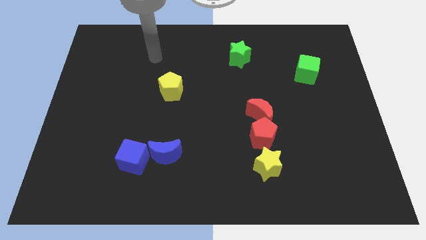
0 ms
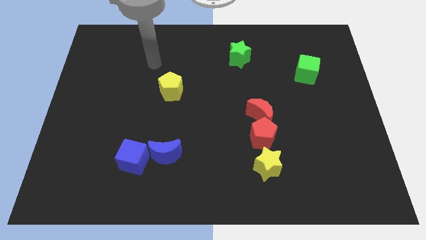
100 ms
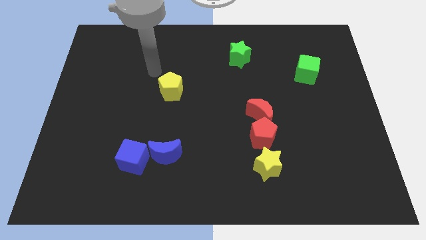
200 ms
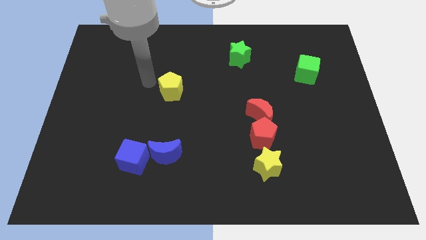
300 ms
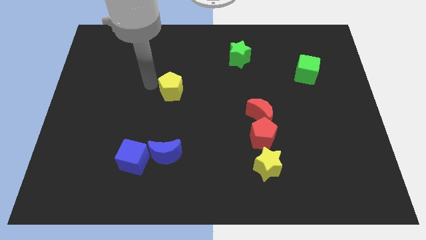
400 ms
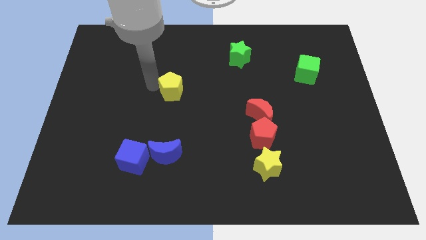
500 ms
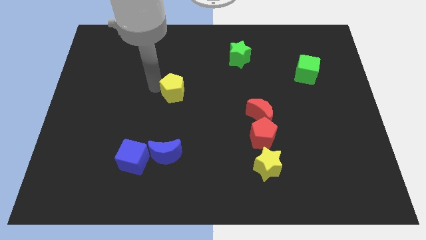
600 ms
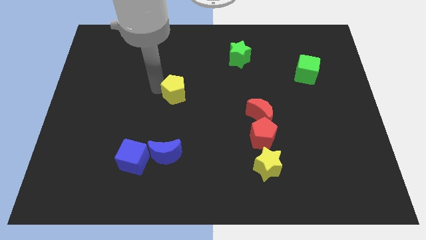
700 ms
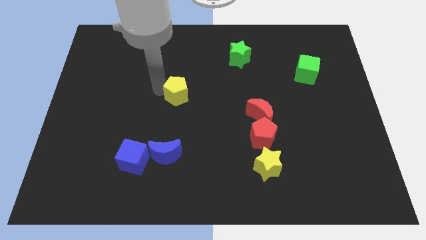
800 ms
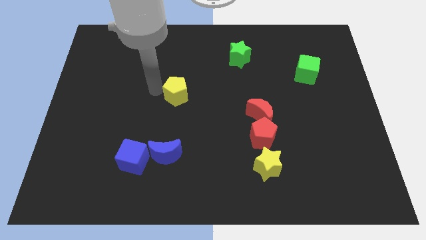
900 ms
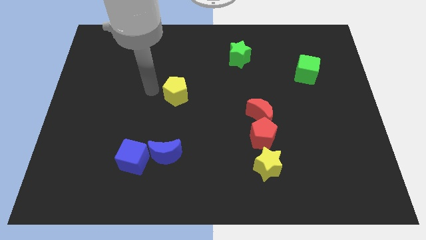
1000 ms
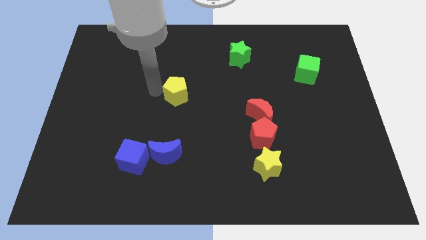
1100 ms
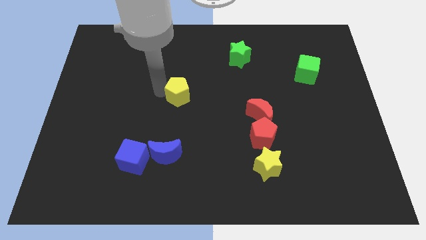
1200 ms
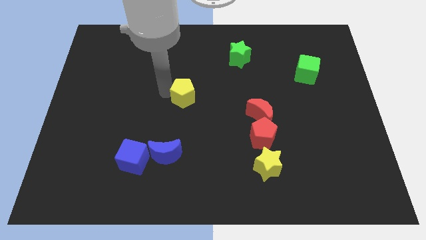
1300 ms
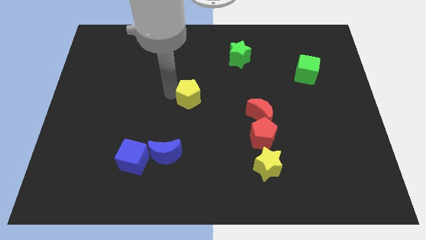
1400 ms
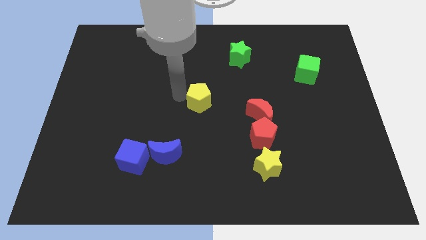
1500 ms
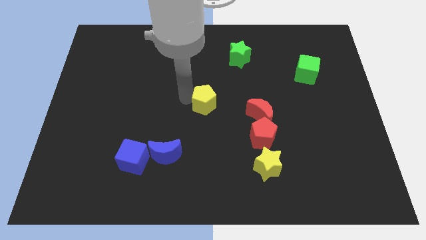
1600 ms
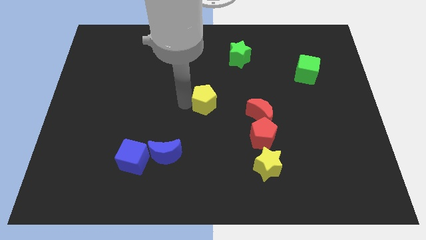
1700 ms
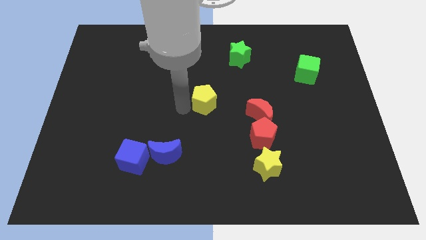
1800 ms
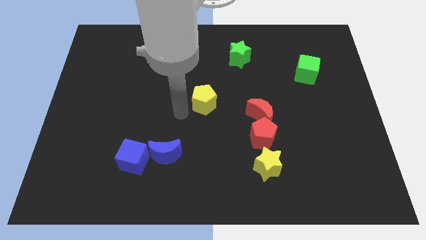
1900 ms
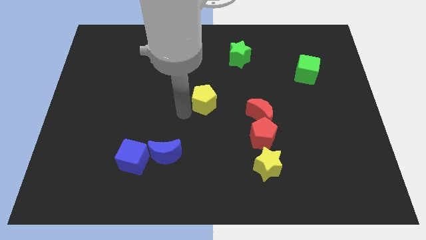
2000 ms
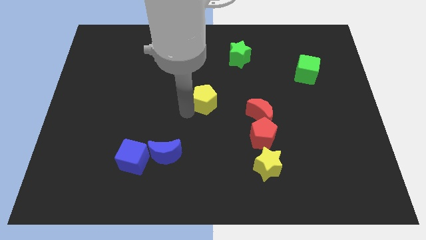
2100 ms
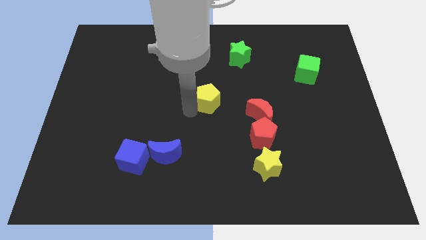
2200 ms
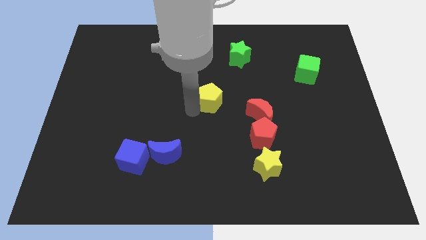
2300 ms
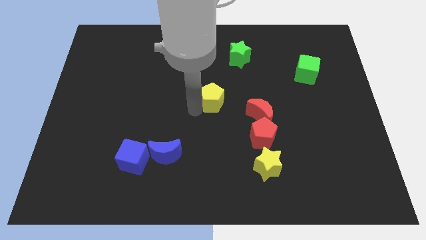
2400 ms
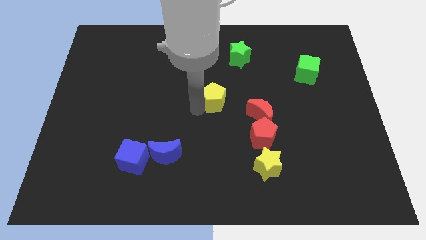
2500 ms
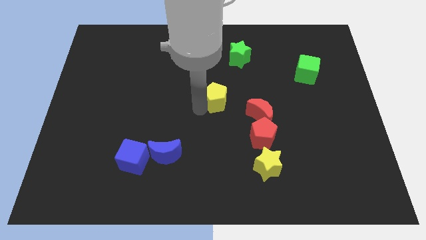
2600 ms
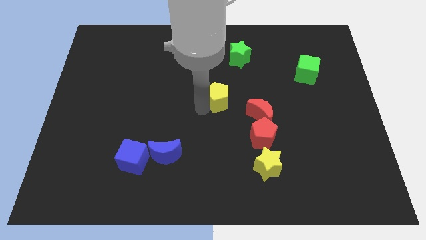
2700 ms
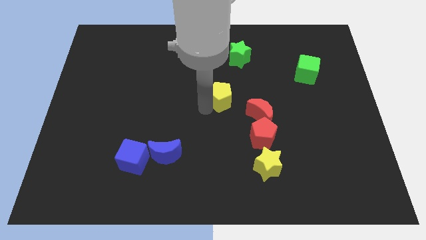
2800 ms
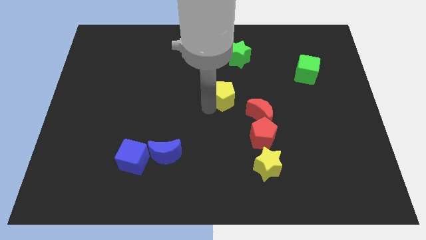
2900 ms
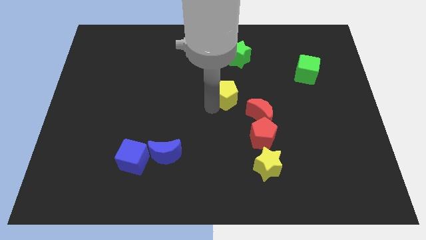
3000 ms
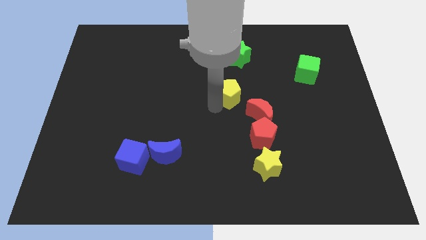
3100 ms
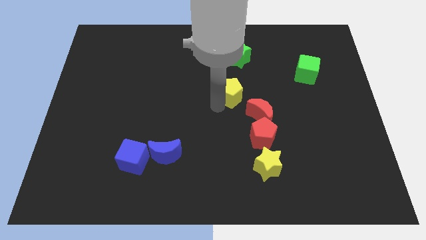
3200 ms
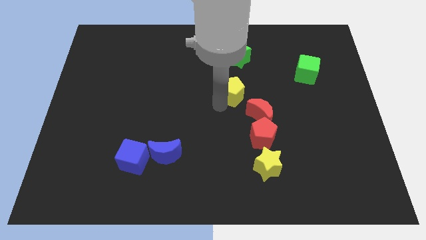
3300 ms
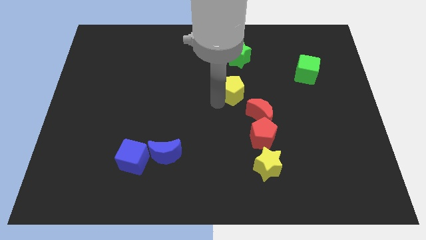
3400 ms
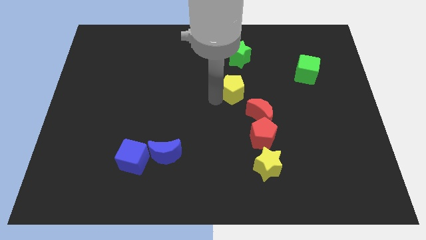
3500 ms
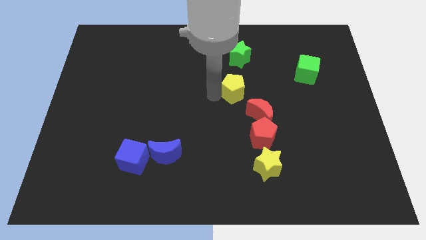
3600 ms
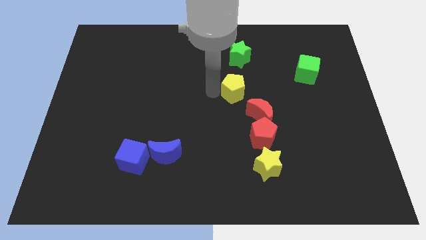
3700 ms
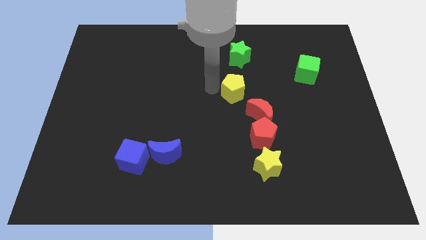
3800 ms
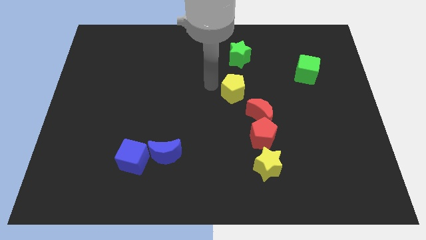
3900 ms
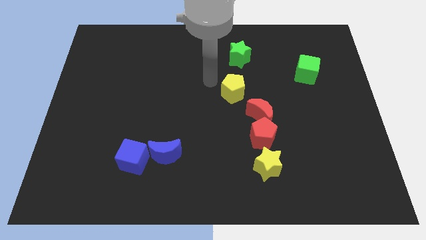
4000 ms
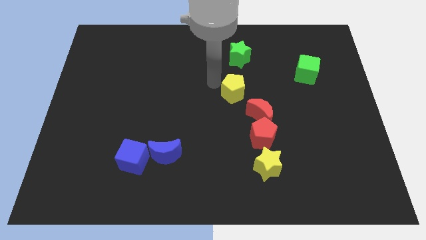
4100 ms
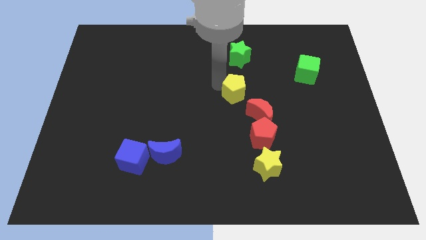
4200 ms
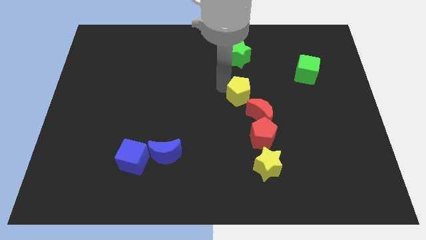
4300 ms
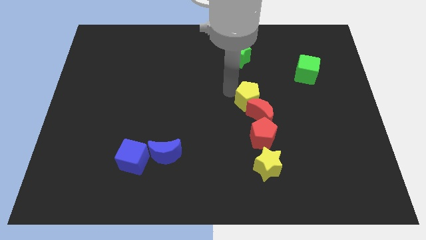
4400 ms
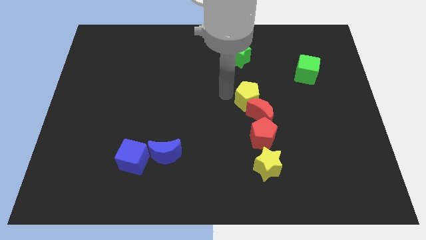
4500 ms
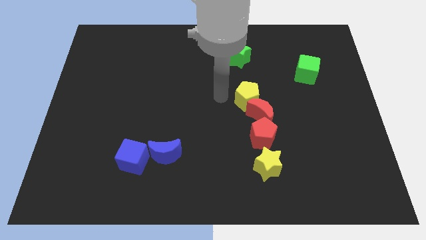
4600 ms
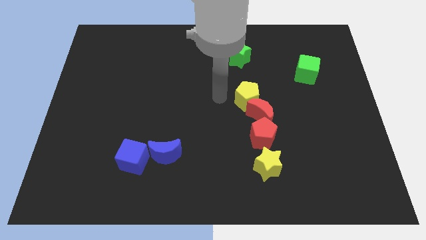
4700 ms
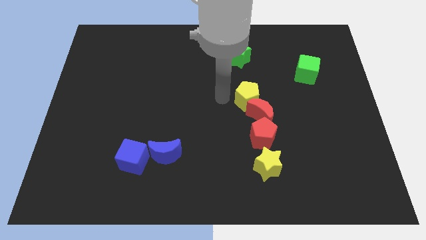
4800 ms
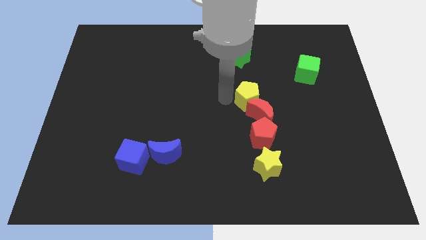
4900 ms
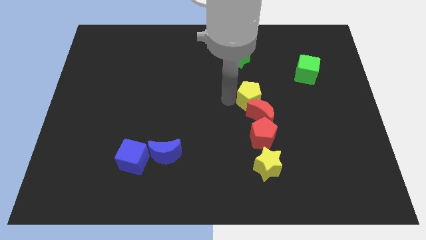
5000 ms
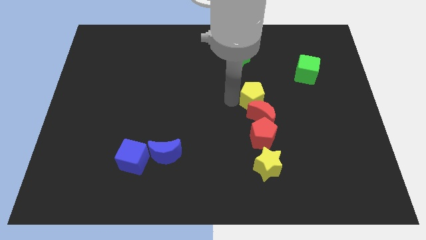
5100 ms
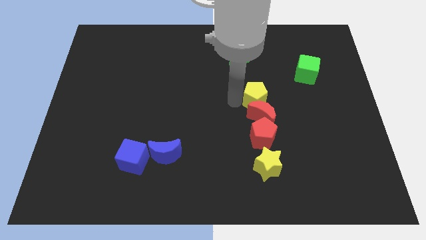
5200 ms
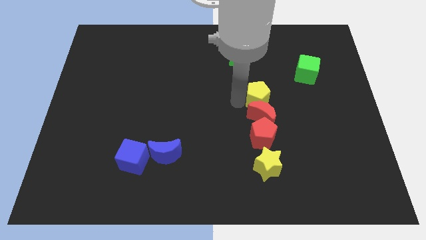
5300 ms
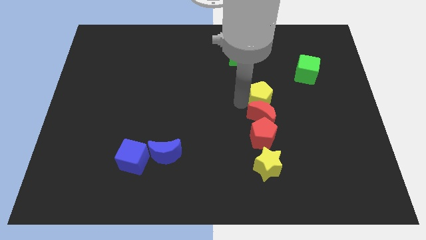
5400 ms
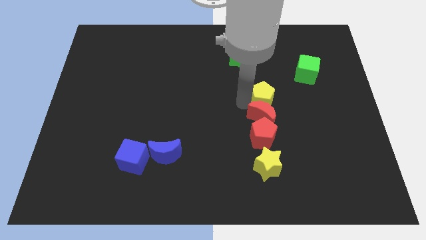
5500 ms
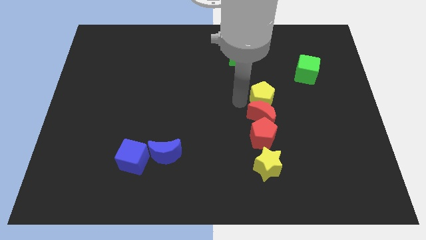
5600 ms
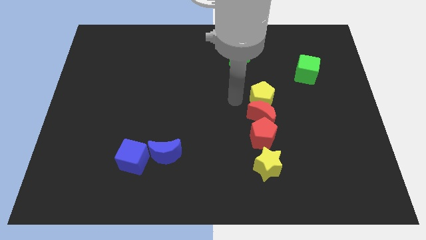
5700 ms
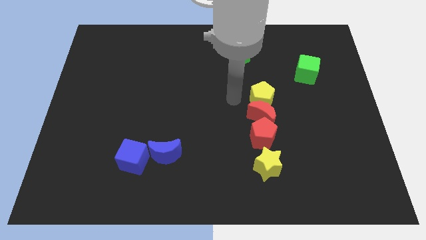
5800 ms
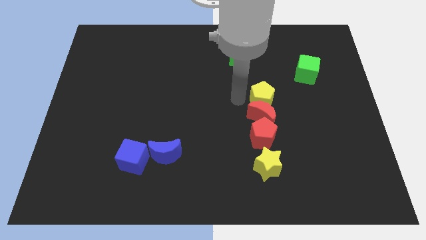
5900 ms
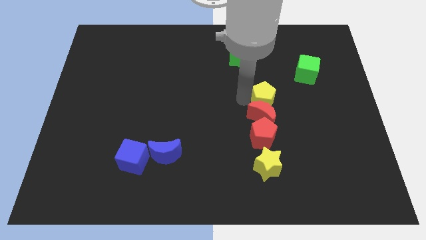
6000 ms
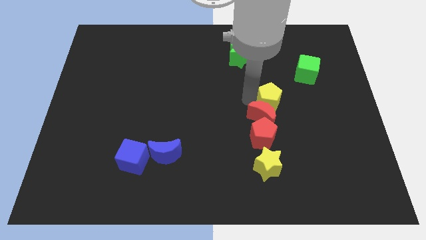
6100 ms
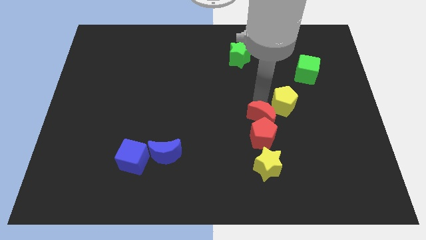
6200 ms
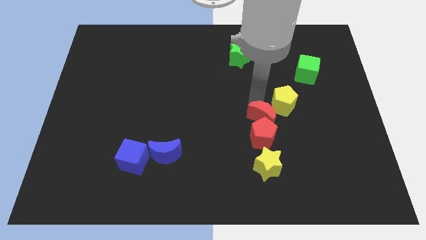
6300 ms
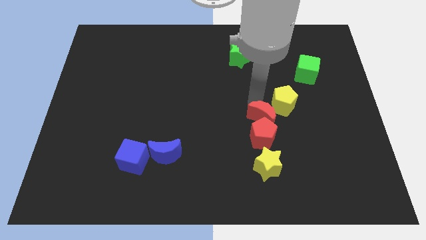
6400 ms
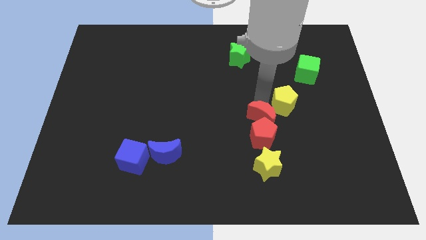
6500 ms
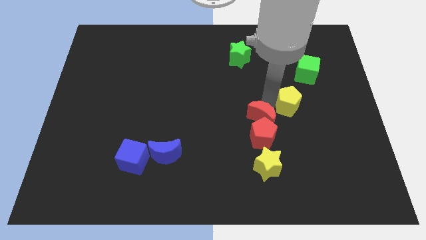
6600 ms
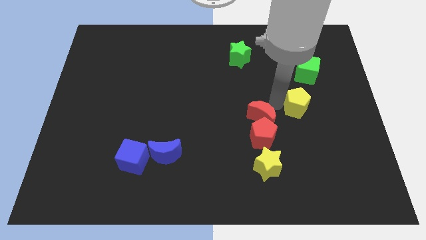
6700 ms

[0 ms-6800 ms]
slide the yellow pentagon to the bottom of the green cube

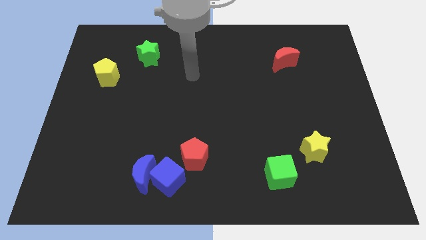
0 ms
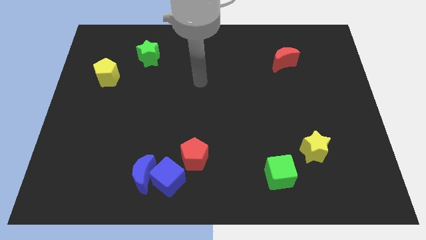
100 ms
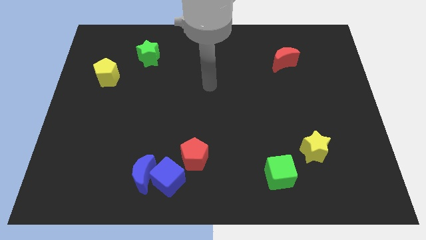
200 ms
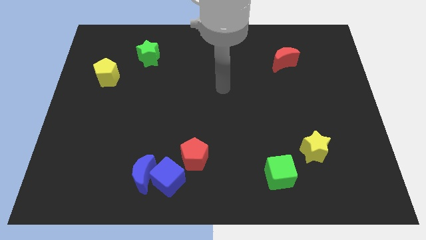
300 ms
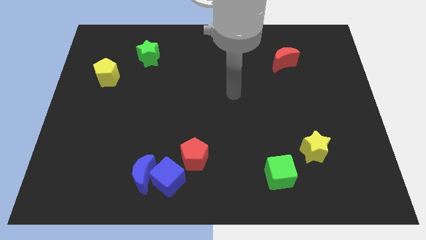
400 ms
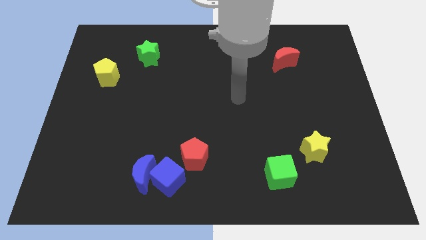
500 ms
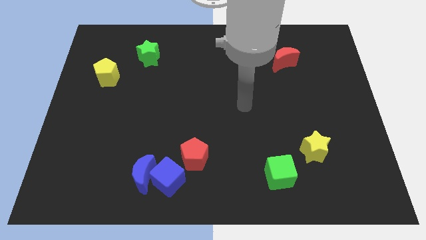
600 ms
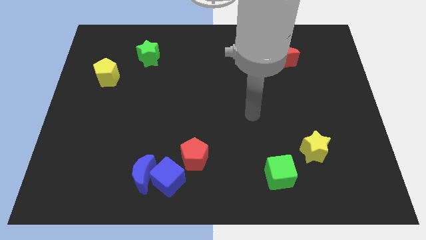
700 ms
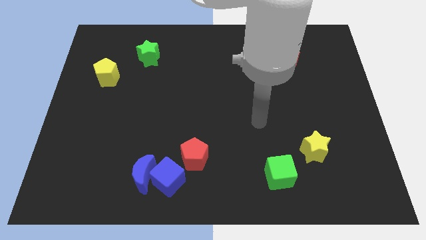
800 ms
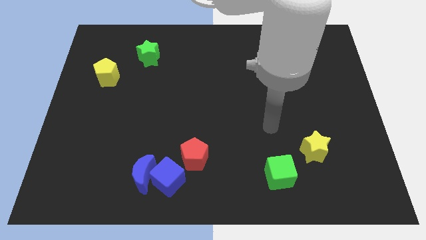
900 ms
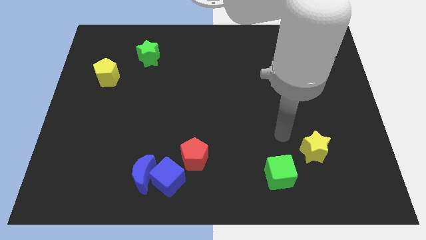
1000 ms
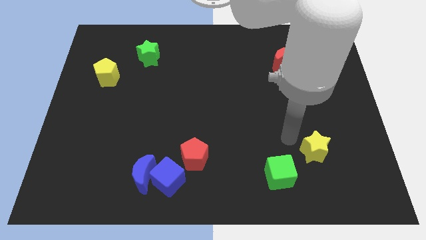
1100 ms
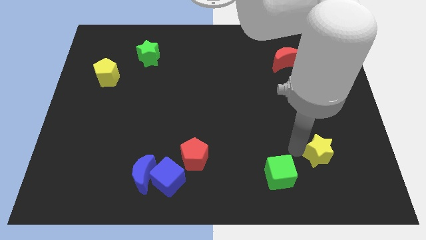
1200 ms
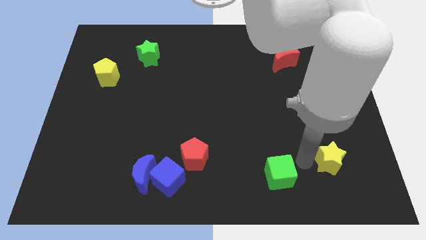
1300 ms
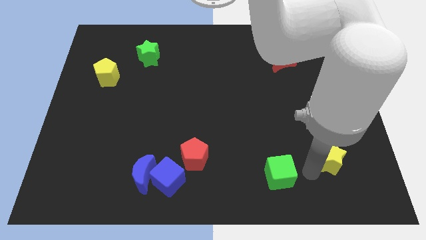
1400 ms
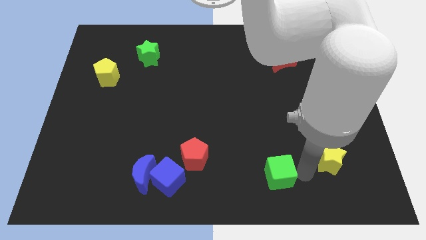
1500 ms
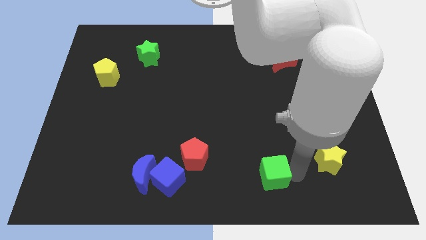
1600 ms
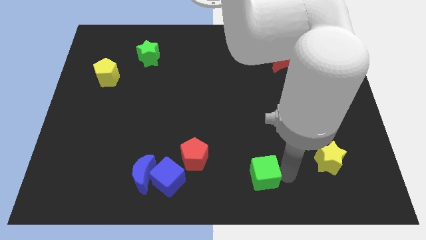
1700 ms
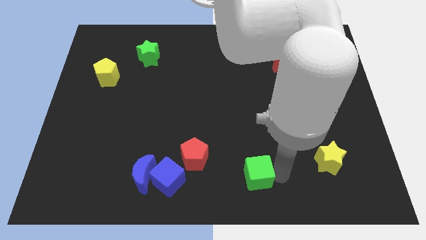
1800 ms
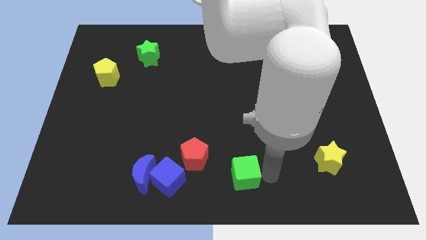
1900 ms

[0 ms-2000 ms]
put the green cube to the right side of the blue cube
